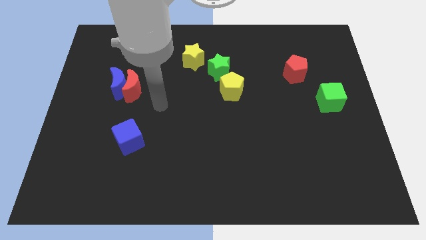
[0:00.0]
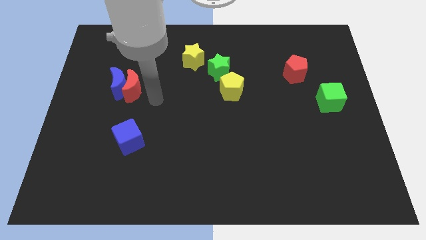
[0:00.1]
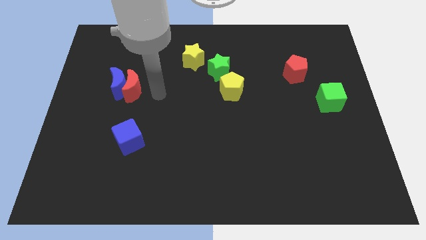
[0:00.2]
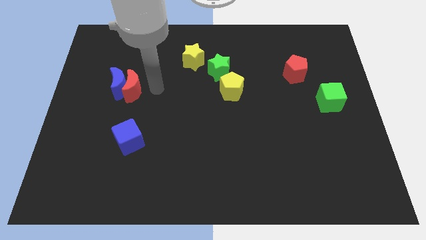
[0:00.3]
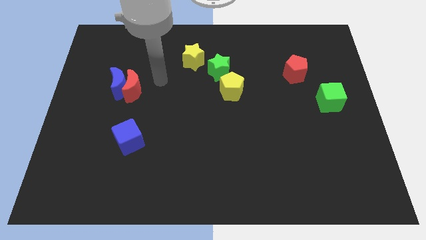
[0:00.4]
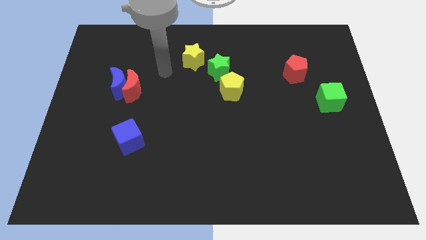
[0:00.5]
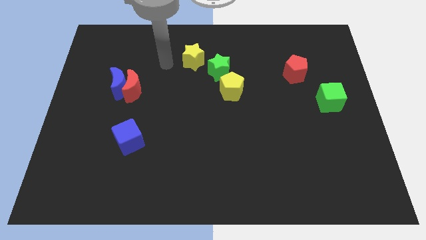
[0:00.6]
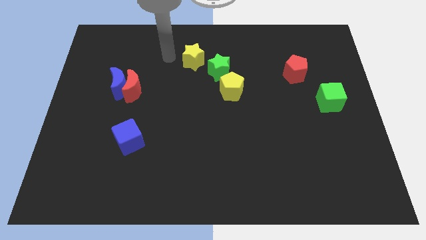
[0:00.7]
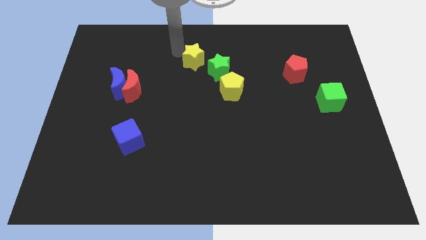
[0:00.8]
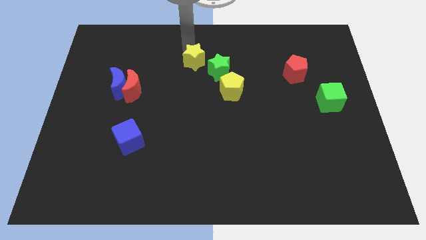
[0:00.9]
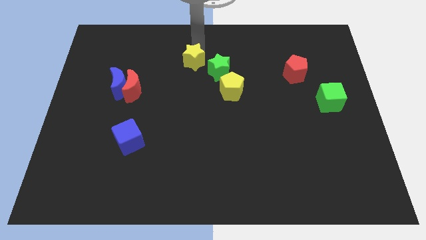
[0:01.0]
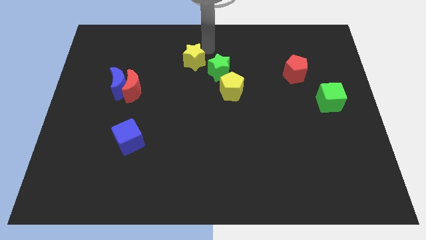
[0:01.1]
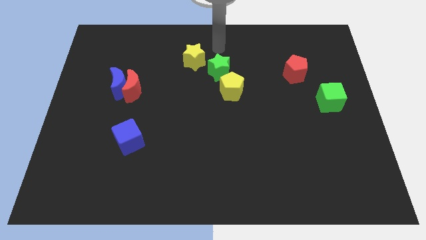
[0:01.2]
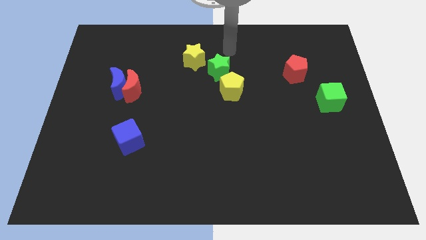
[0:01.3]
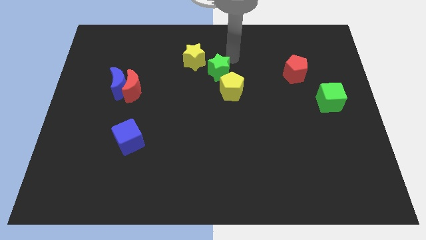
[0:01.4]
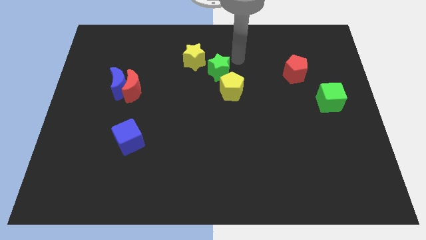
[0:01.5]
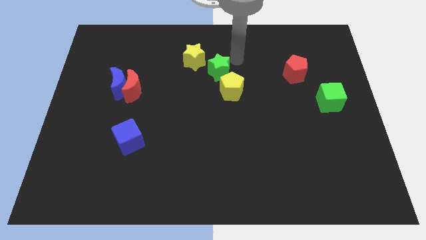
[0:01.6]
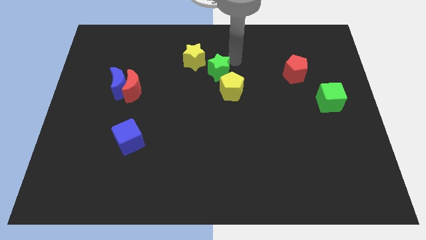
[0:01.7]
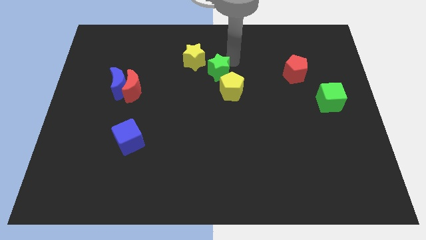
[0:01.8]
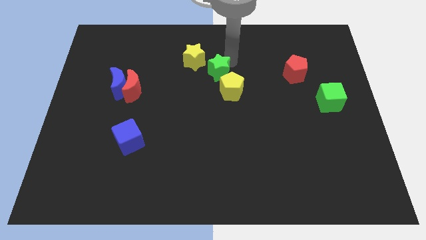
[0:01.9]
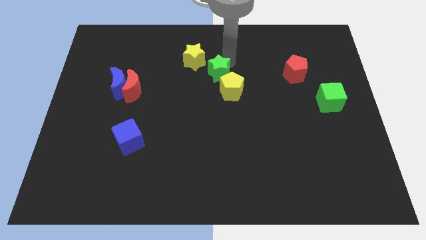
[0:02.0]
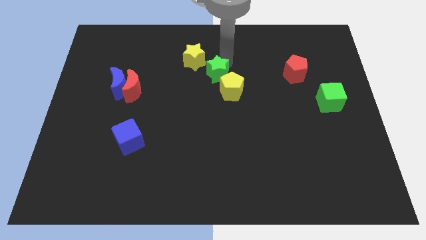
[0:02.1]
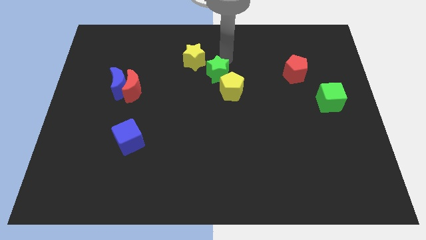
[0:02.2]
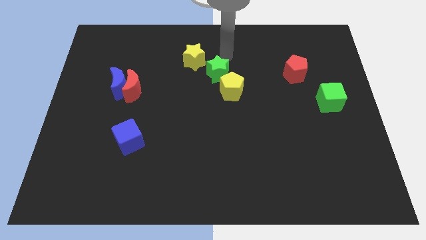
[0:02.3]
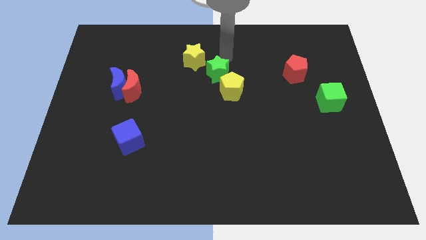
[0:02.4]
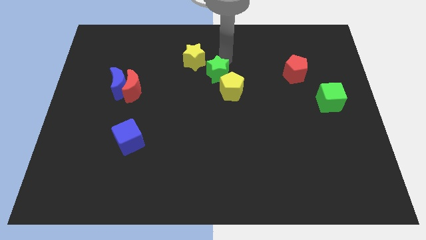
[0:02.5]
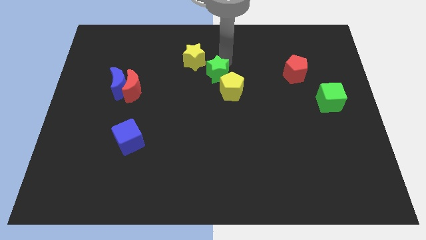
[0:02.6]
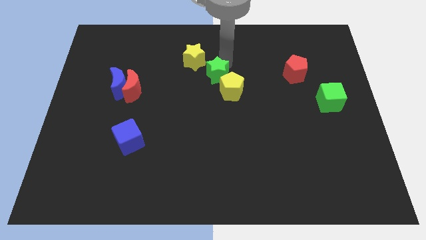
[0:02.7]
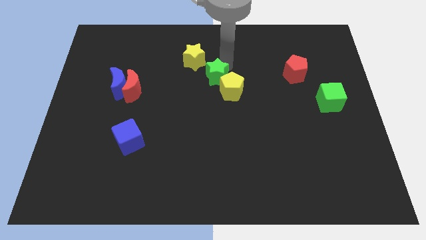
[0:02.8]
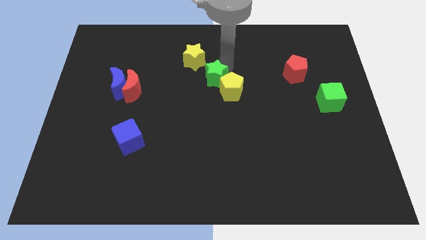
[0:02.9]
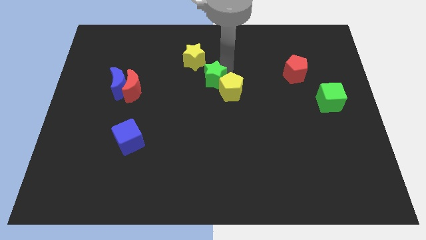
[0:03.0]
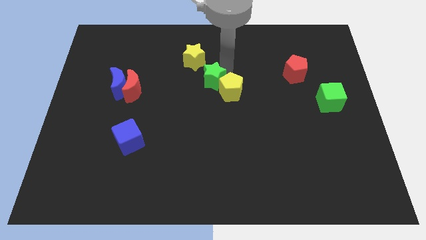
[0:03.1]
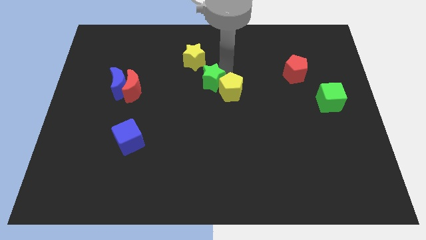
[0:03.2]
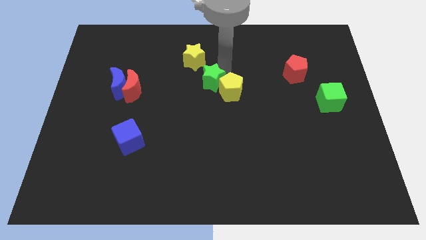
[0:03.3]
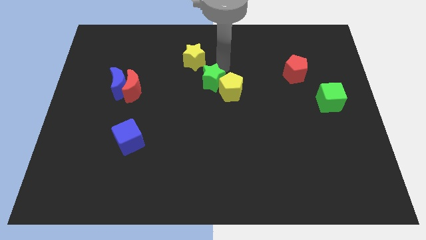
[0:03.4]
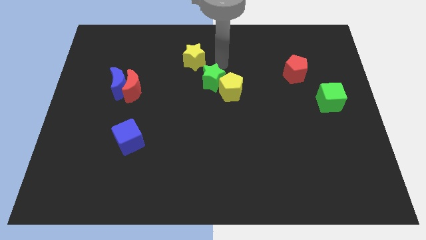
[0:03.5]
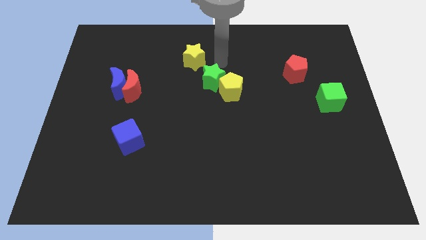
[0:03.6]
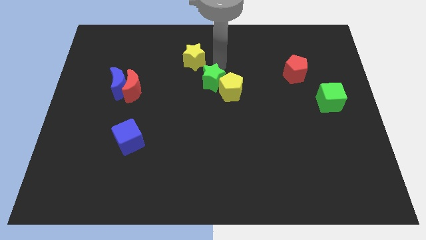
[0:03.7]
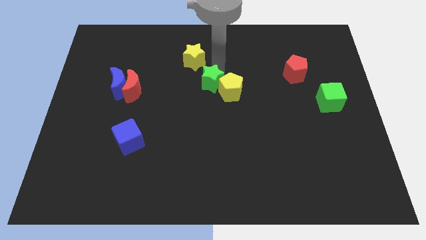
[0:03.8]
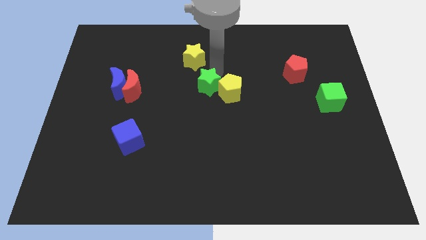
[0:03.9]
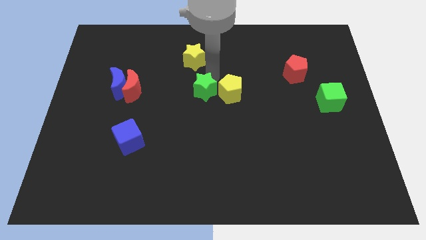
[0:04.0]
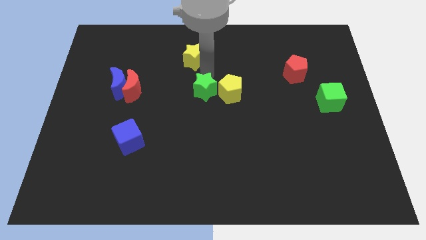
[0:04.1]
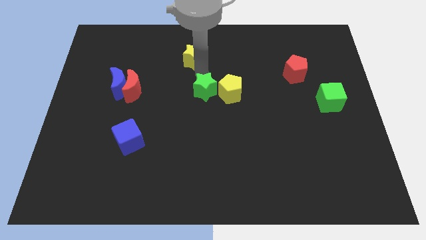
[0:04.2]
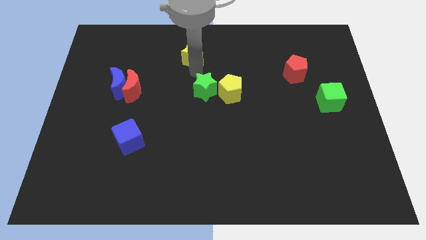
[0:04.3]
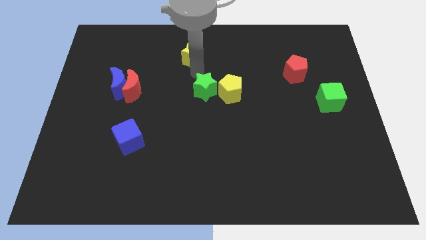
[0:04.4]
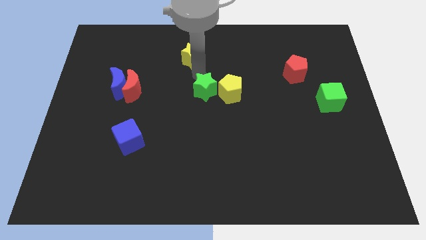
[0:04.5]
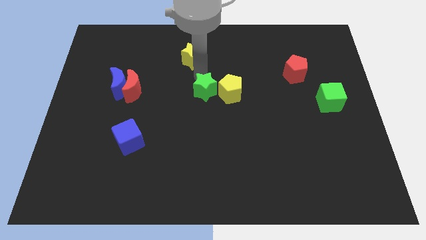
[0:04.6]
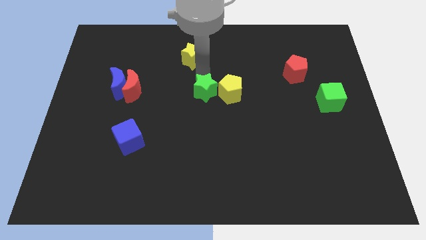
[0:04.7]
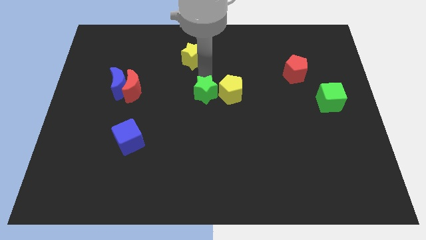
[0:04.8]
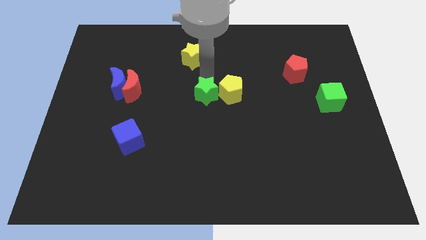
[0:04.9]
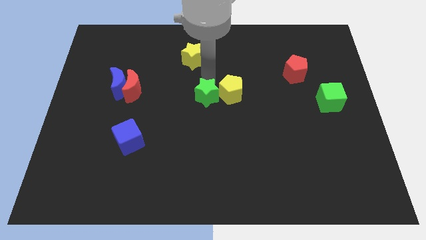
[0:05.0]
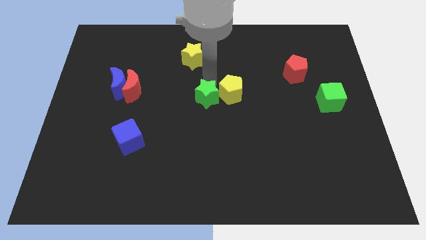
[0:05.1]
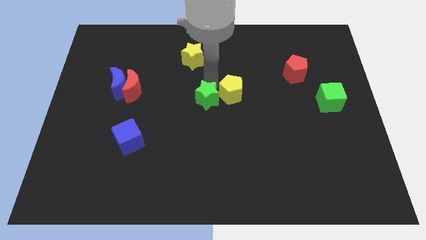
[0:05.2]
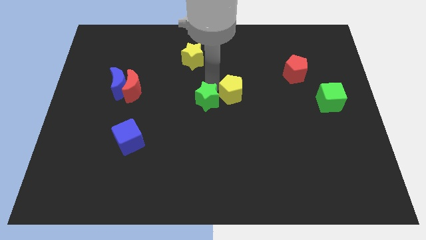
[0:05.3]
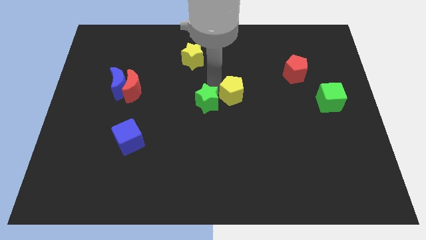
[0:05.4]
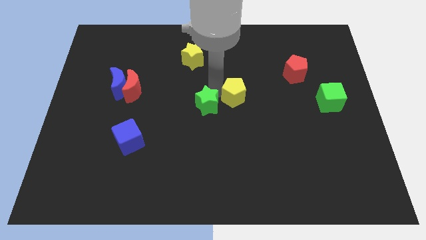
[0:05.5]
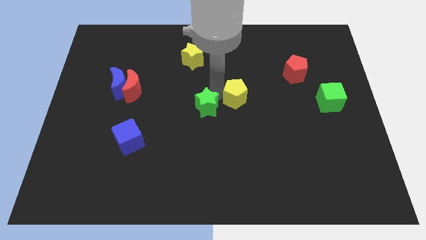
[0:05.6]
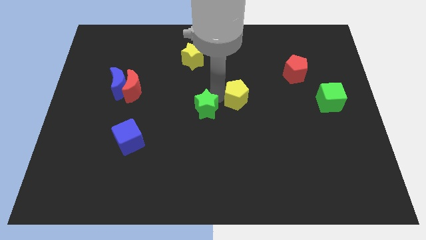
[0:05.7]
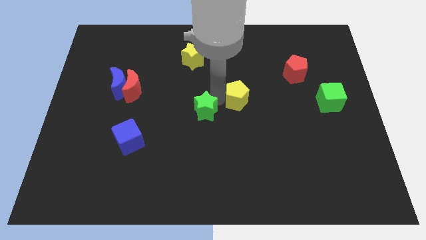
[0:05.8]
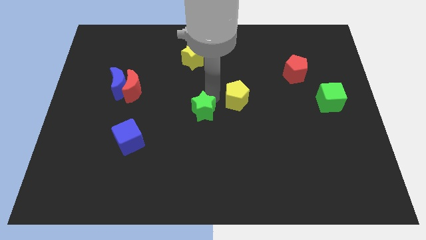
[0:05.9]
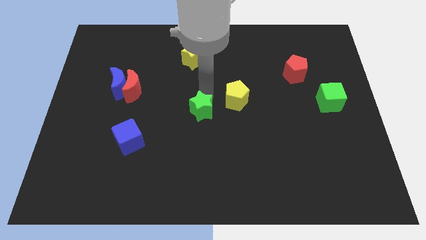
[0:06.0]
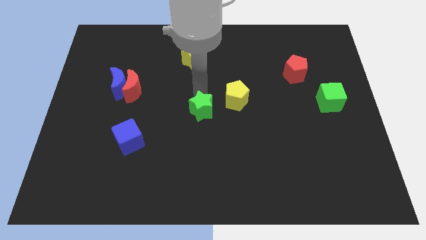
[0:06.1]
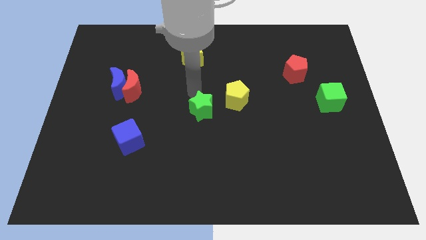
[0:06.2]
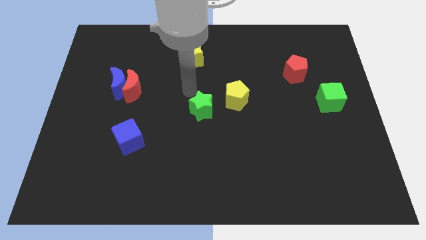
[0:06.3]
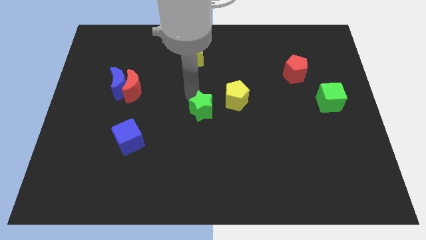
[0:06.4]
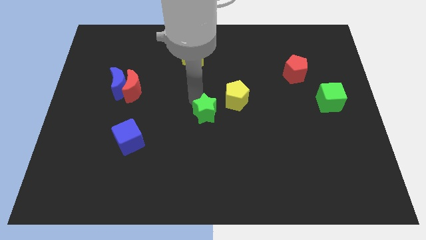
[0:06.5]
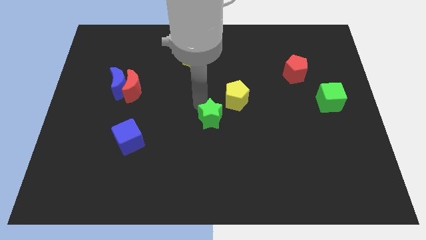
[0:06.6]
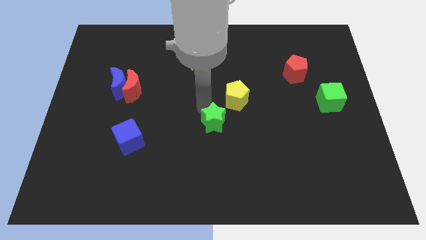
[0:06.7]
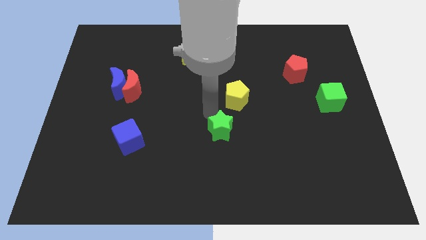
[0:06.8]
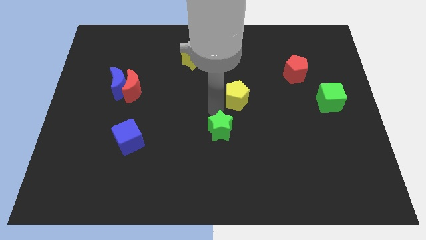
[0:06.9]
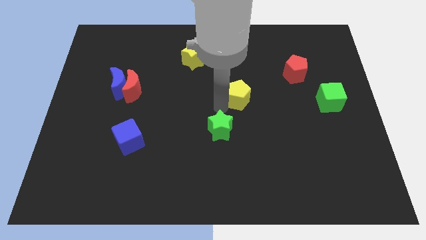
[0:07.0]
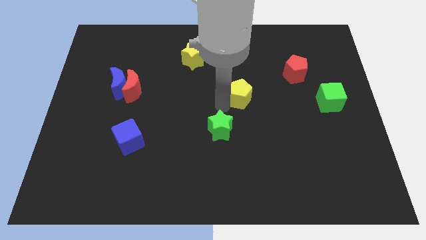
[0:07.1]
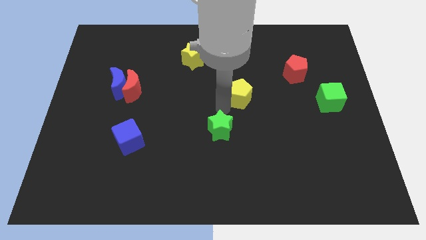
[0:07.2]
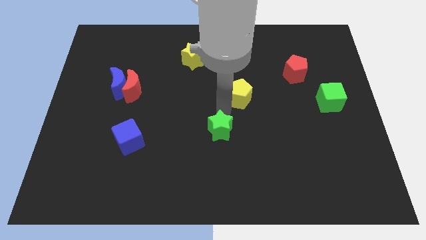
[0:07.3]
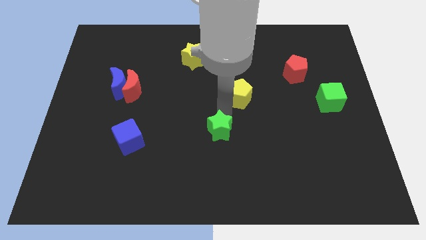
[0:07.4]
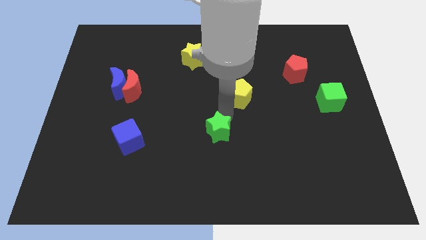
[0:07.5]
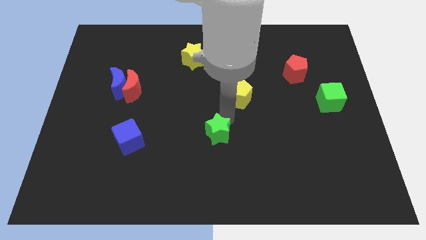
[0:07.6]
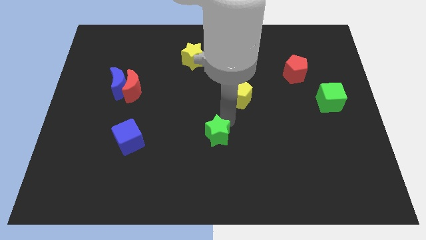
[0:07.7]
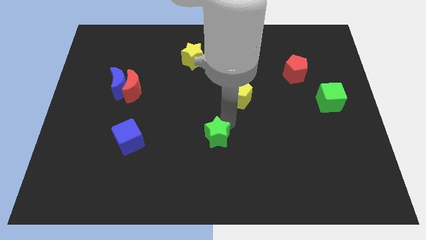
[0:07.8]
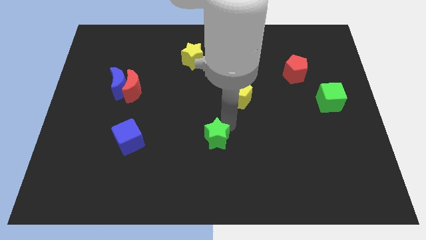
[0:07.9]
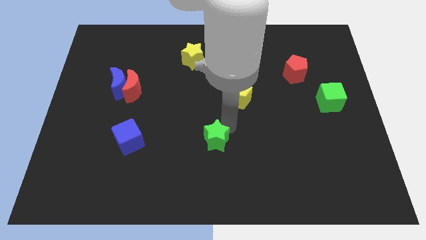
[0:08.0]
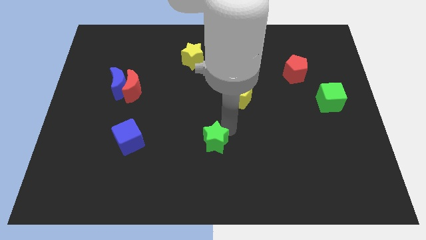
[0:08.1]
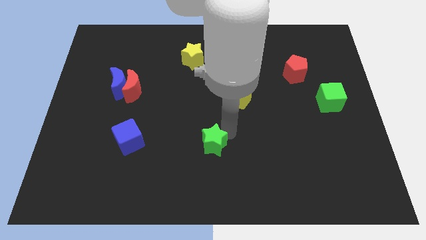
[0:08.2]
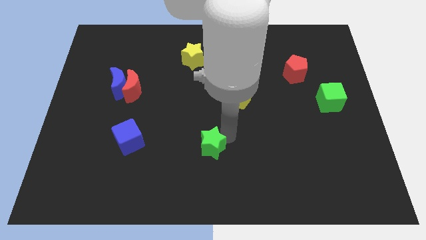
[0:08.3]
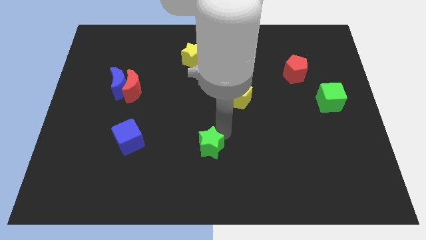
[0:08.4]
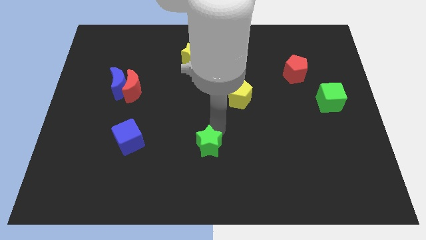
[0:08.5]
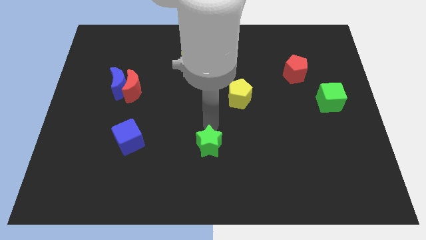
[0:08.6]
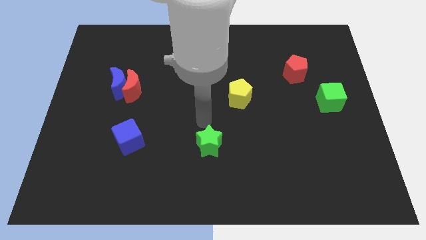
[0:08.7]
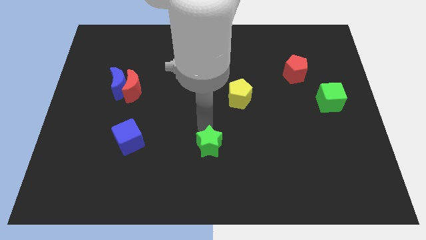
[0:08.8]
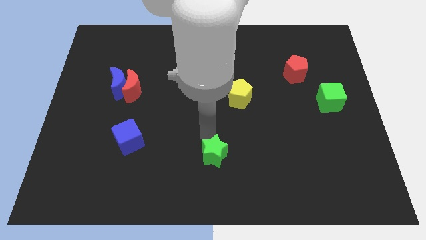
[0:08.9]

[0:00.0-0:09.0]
put the green star to the bottom
